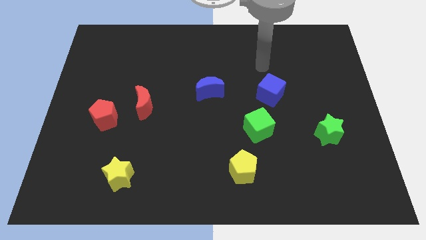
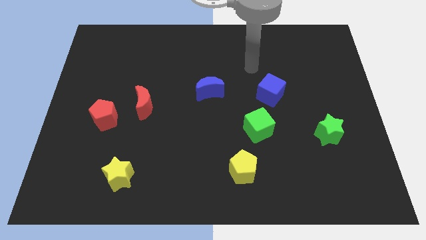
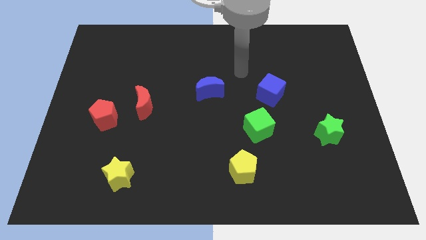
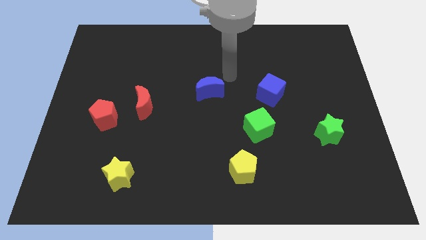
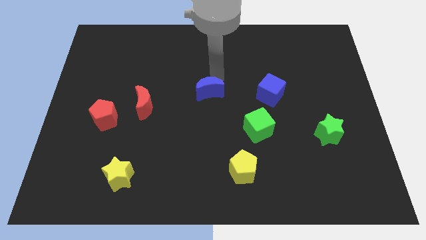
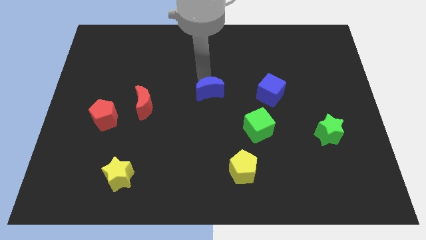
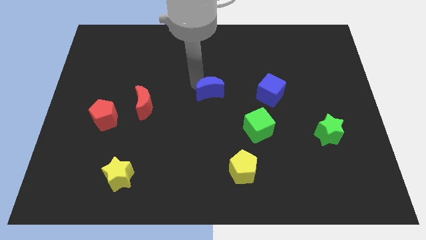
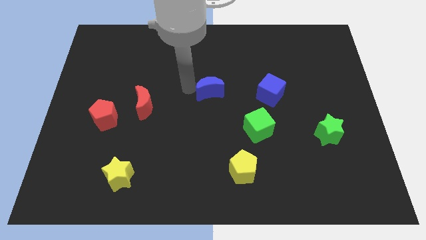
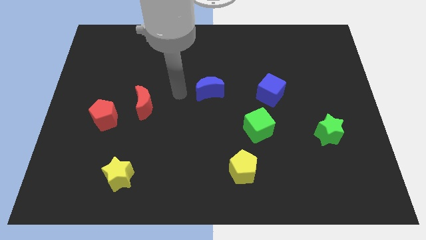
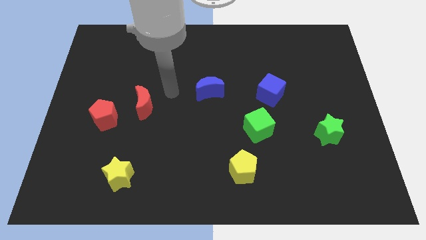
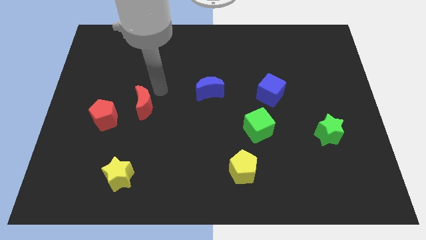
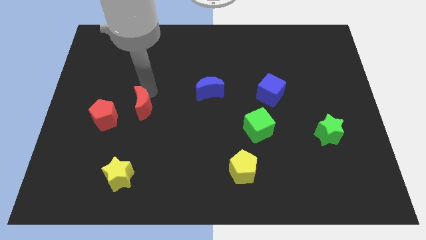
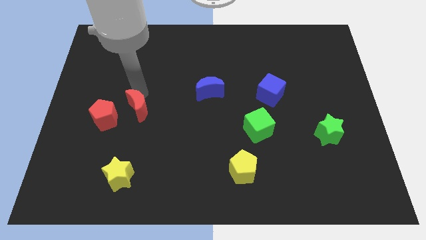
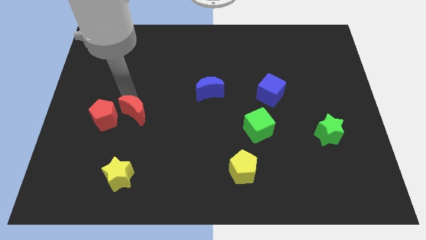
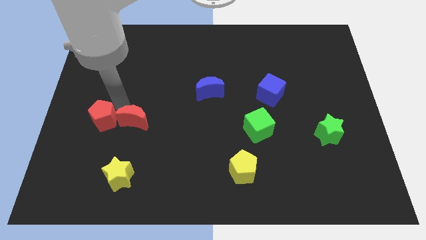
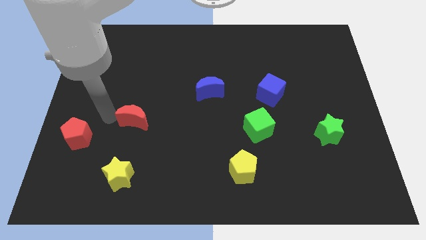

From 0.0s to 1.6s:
move the red moon away from the red pentagon

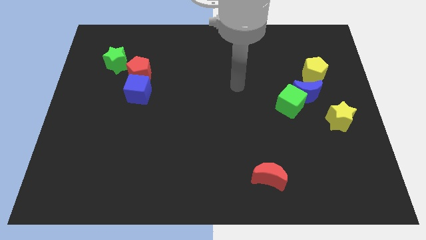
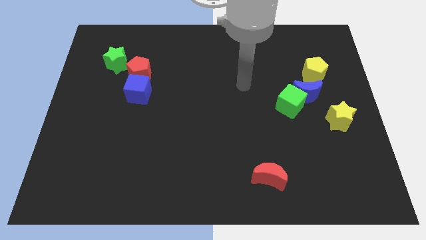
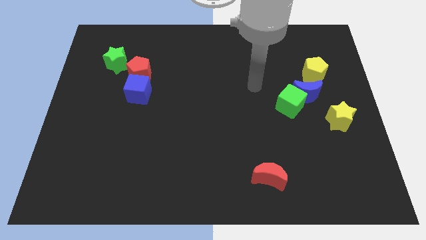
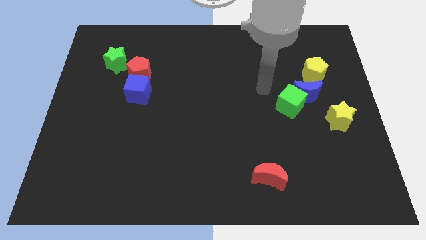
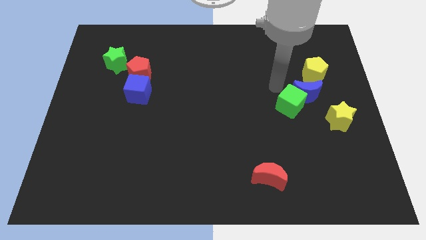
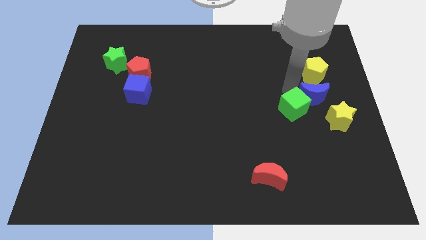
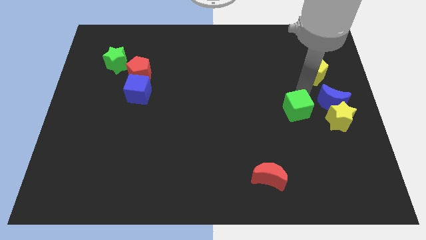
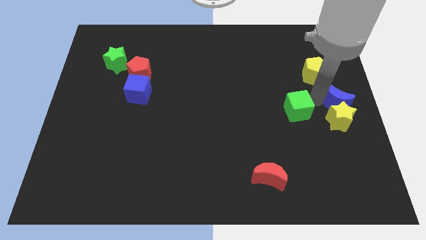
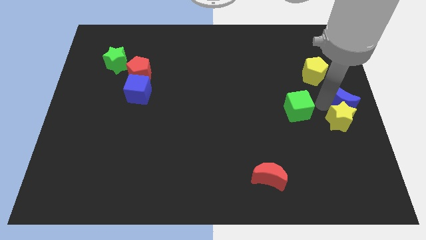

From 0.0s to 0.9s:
separate the green cube from the blue moon

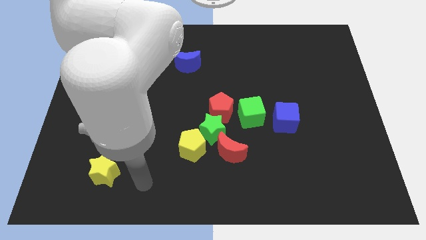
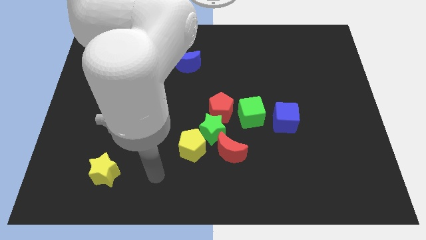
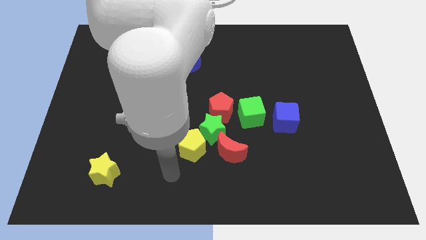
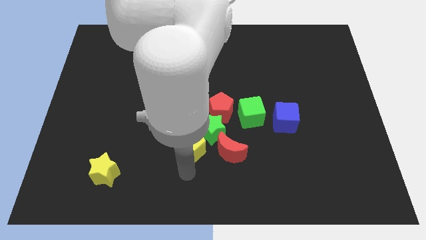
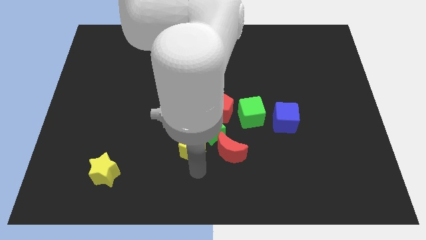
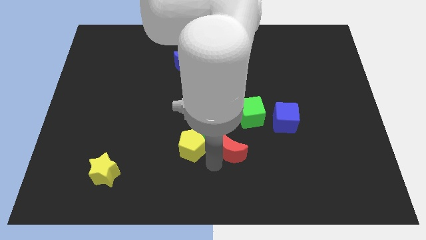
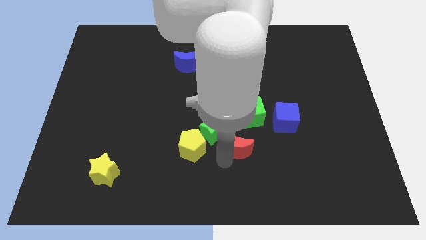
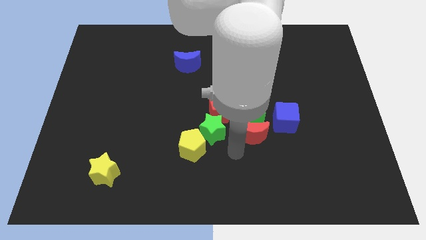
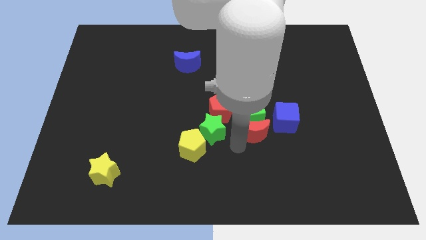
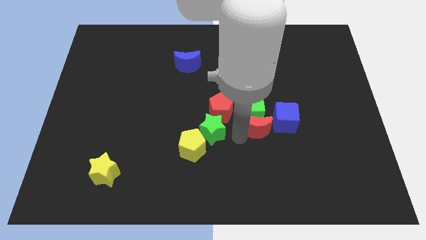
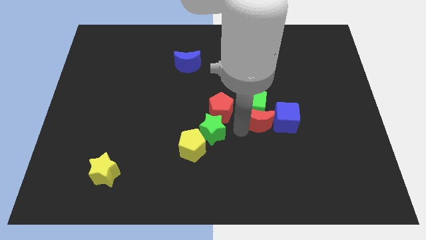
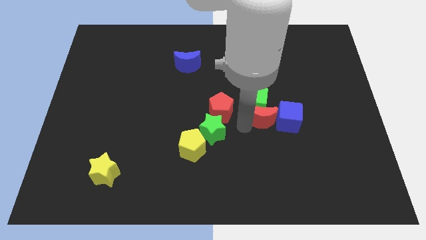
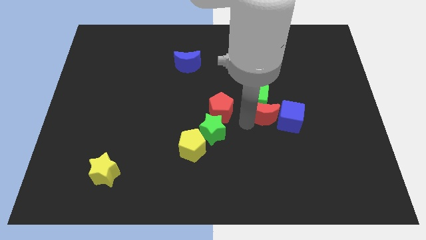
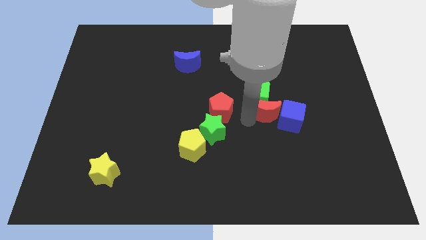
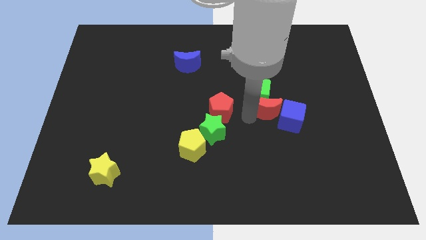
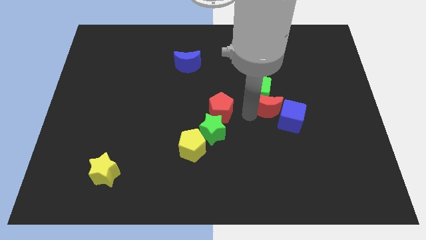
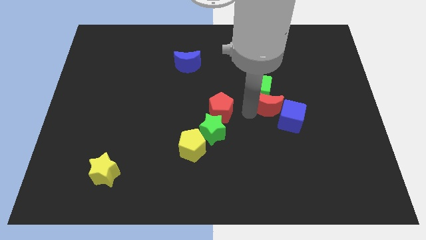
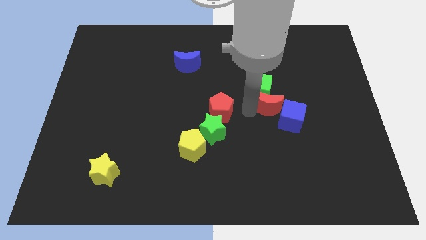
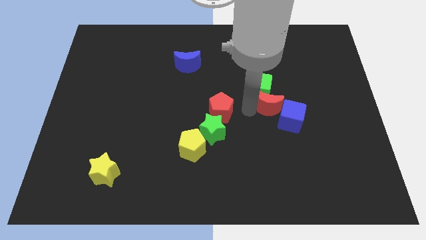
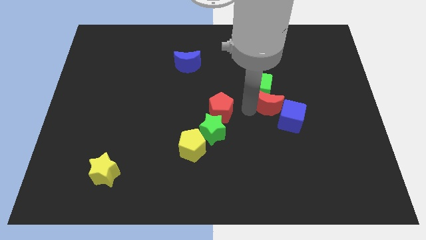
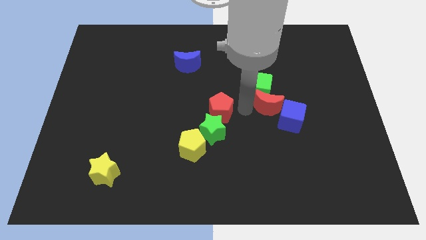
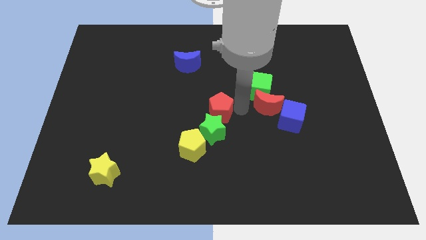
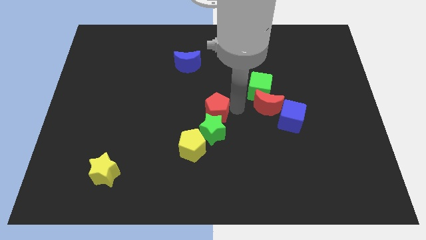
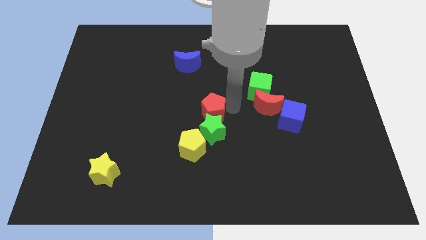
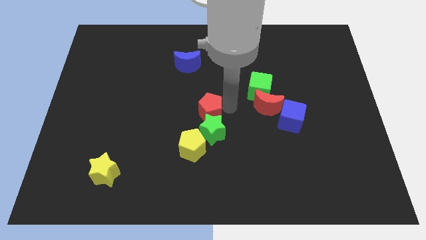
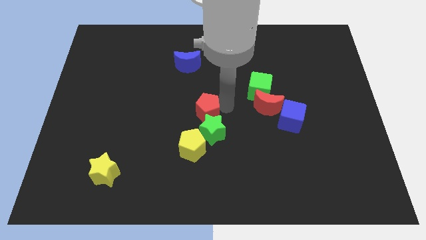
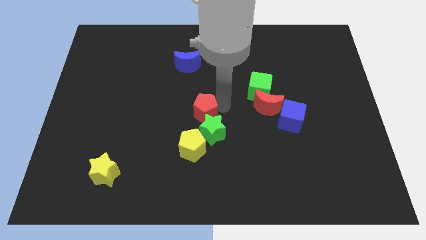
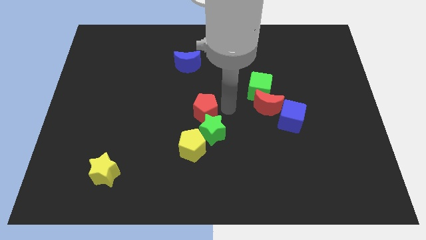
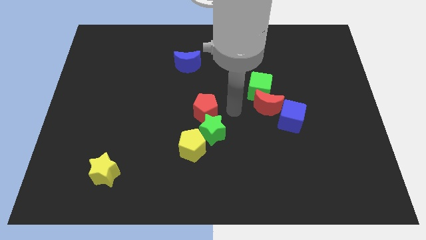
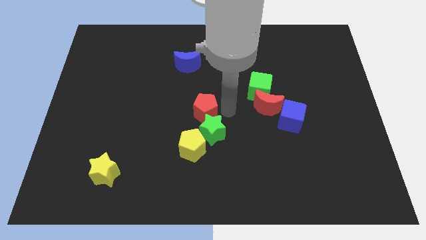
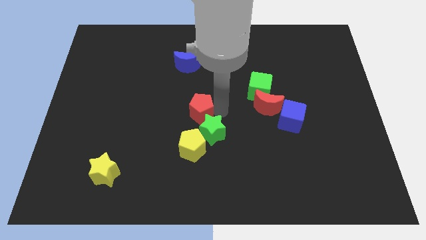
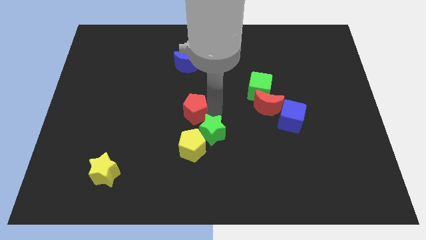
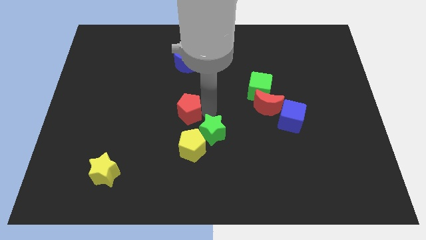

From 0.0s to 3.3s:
move the red pentagon away from the green star and green cube

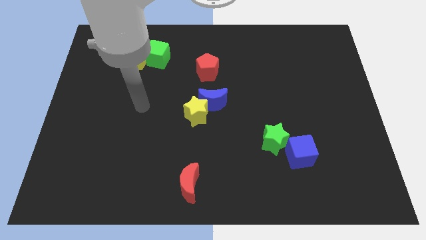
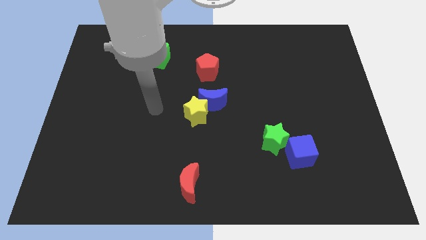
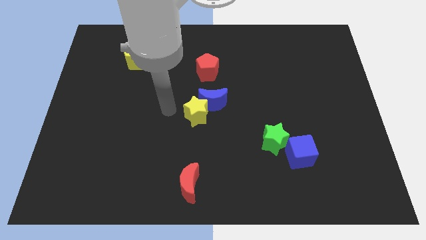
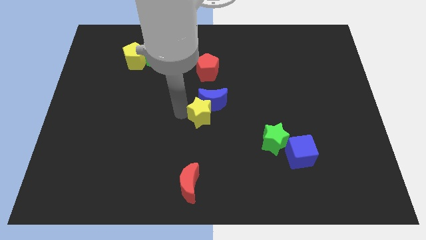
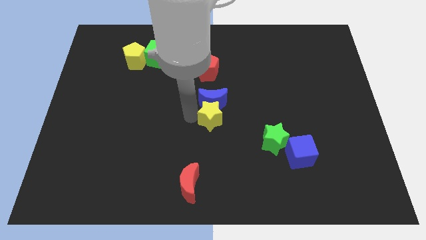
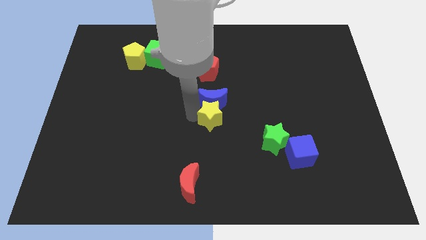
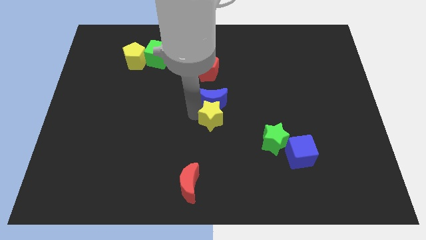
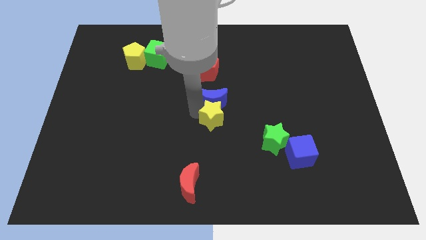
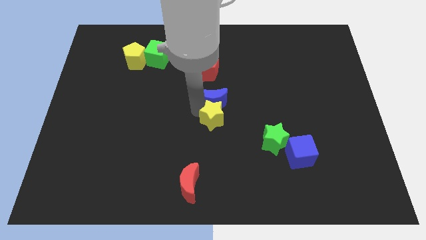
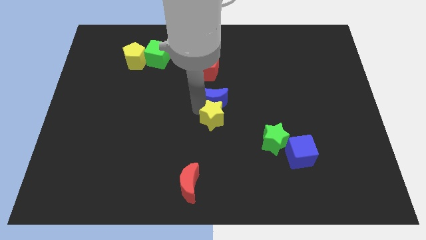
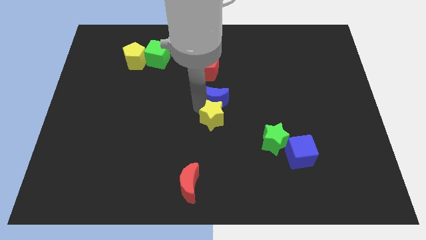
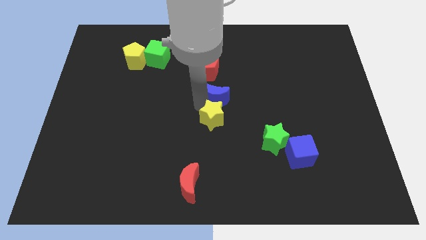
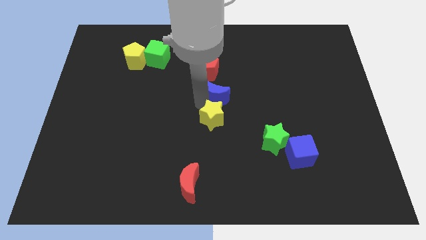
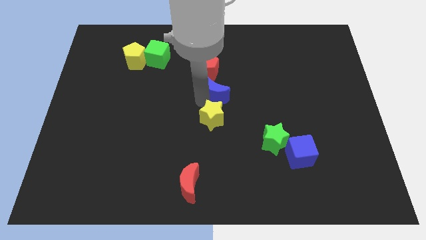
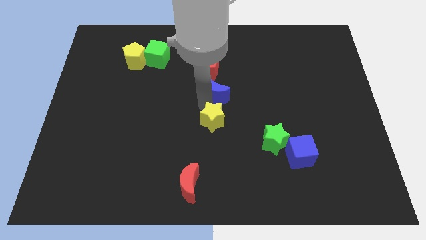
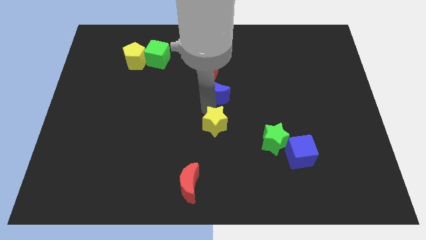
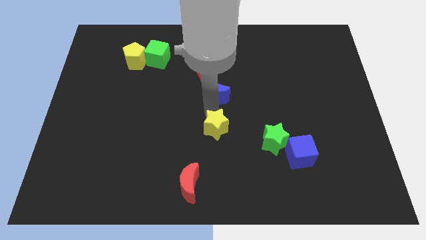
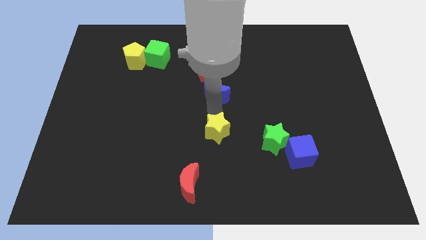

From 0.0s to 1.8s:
pull the blue moon apart from the yellow star

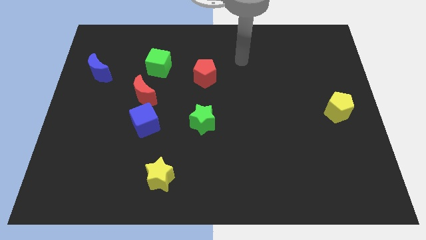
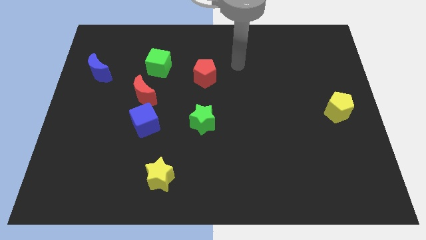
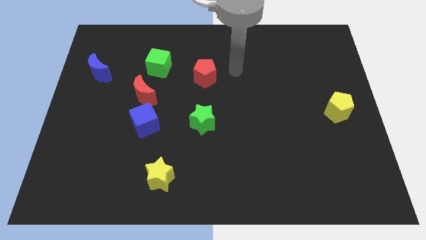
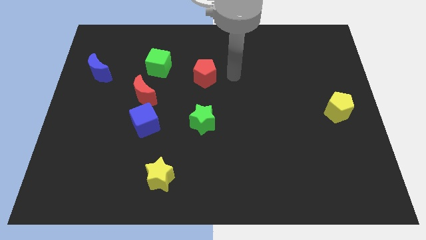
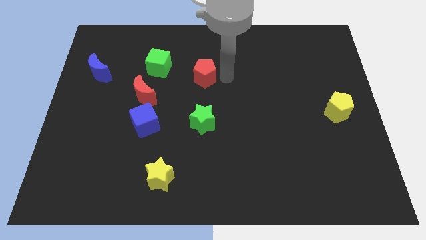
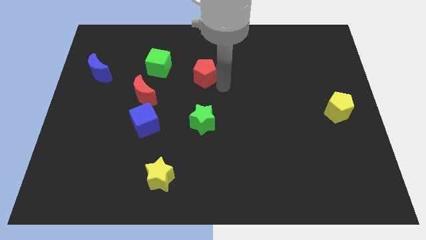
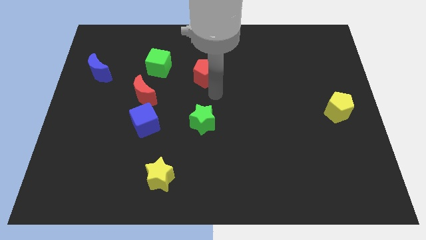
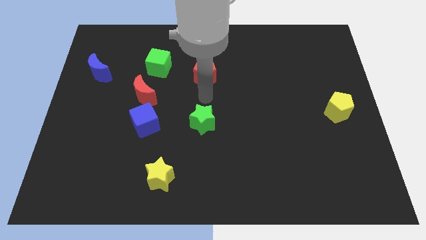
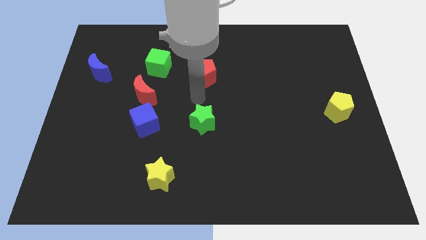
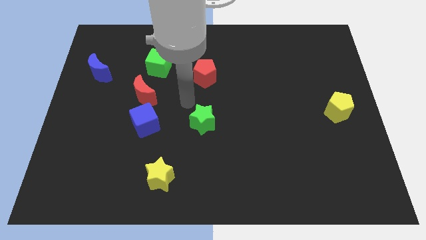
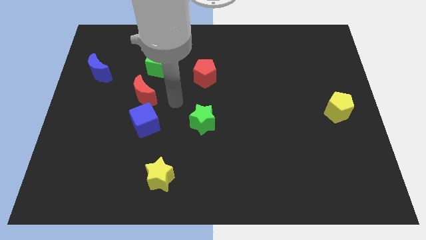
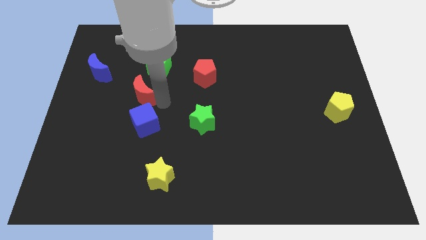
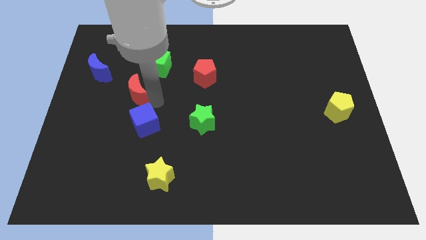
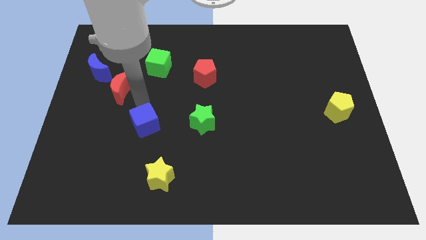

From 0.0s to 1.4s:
pull the blue cube apart from the red moon

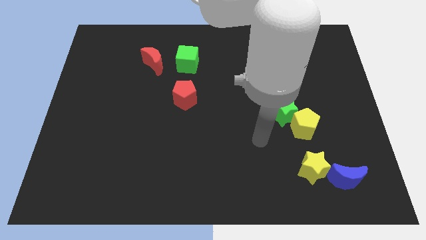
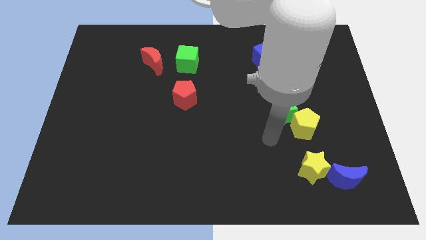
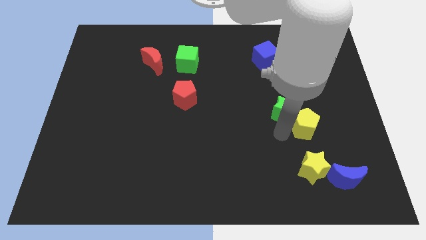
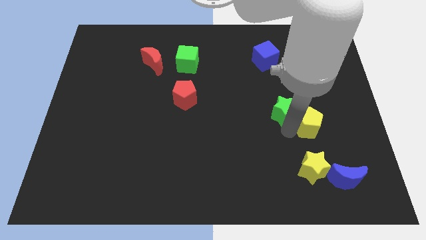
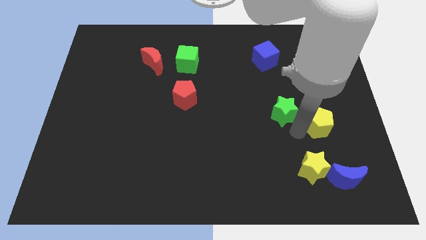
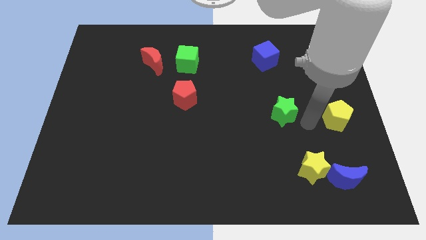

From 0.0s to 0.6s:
separate the green star from the yellow pentagon
